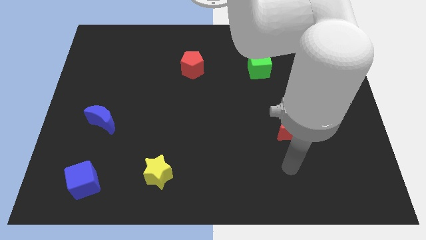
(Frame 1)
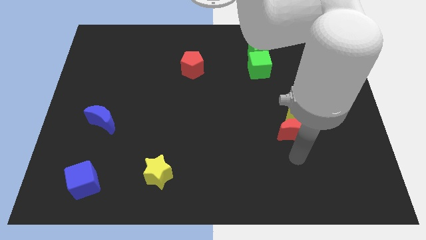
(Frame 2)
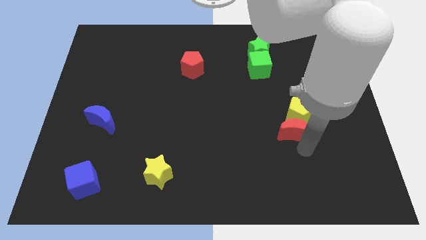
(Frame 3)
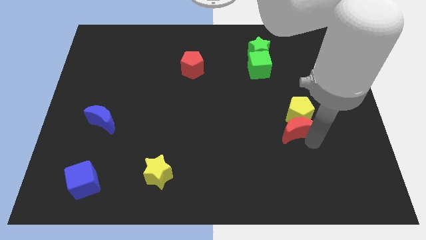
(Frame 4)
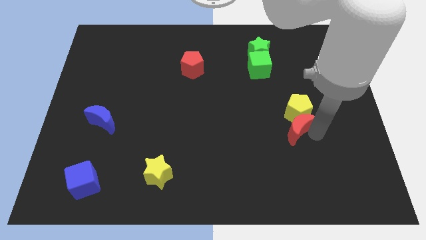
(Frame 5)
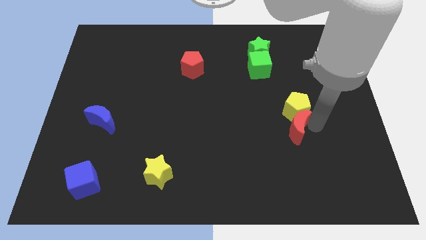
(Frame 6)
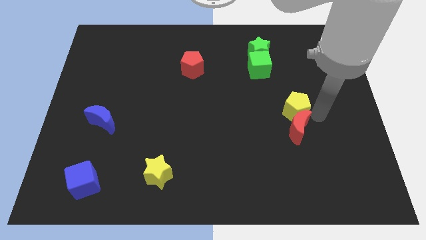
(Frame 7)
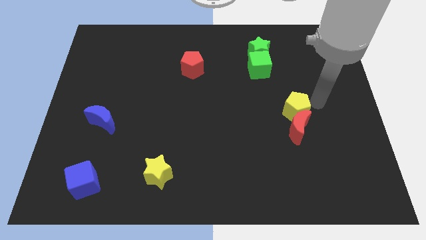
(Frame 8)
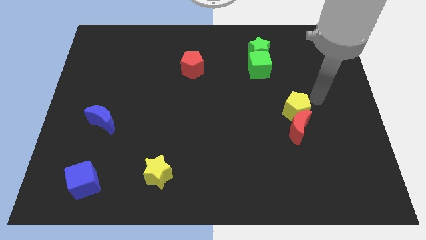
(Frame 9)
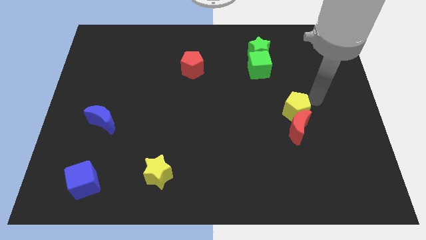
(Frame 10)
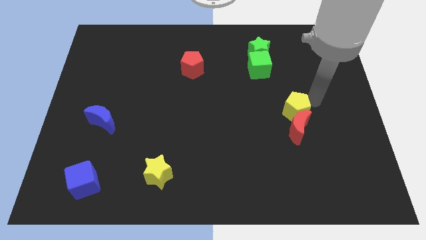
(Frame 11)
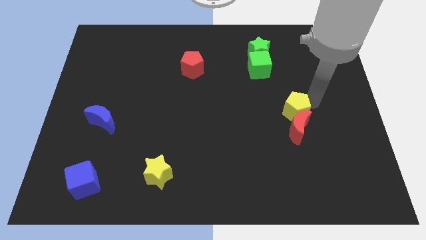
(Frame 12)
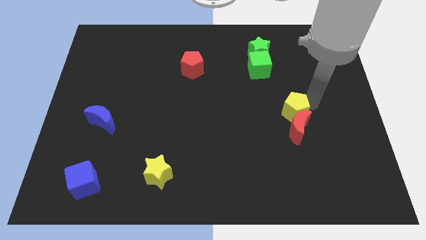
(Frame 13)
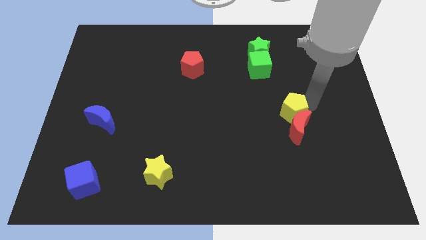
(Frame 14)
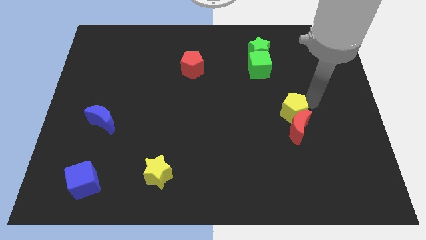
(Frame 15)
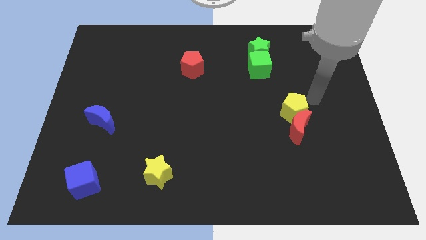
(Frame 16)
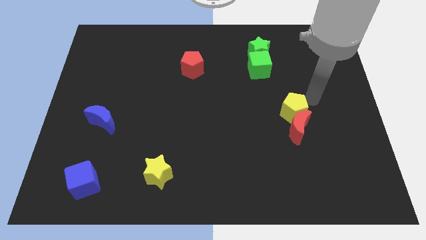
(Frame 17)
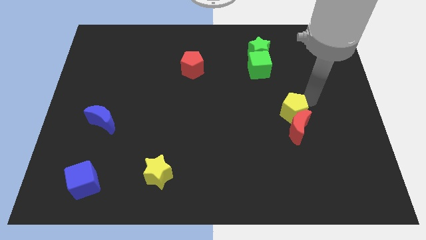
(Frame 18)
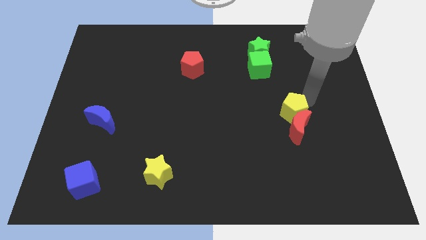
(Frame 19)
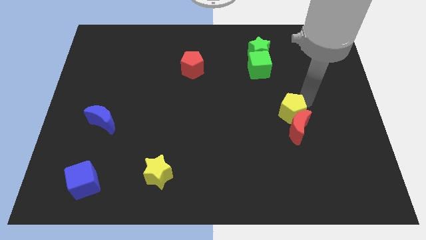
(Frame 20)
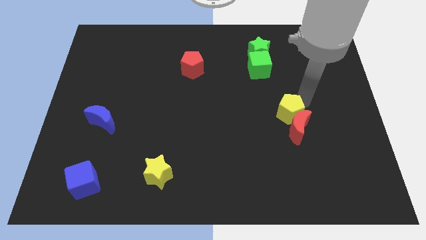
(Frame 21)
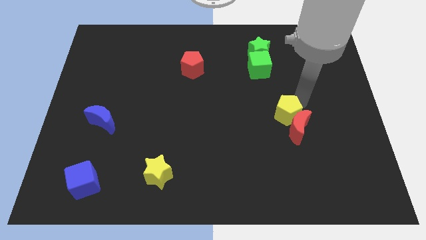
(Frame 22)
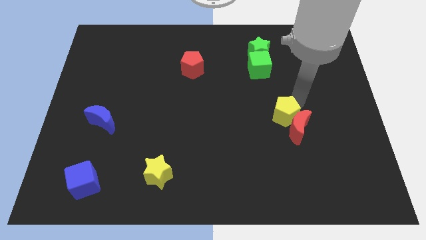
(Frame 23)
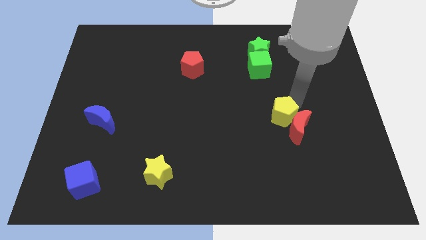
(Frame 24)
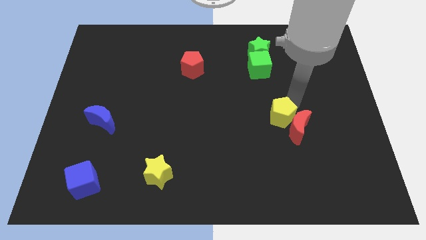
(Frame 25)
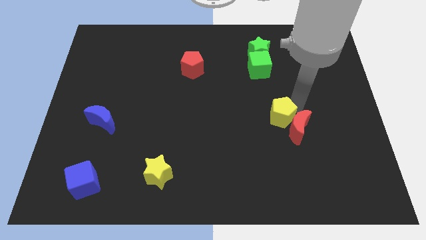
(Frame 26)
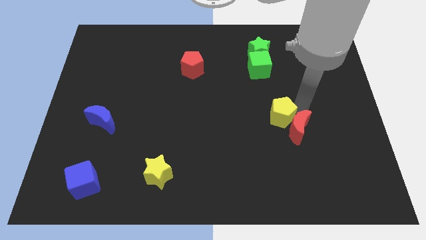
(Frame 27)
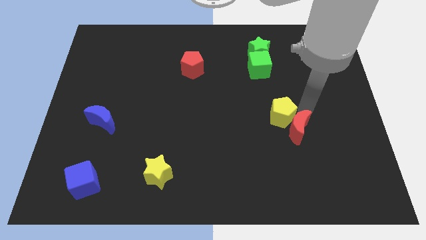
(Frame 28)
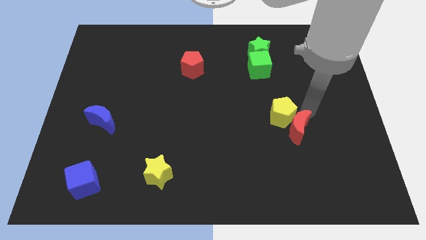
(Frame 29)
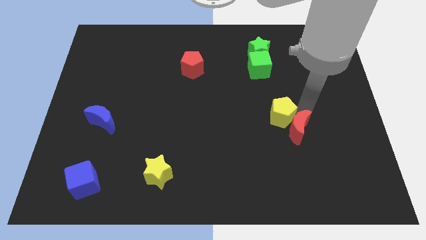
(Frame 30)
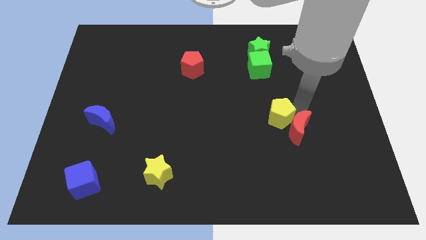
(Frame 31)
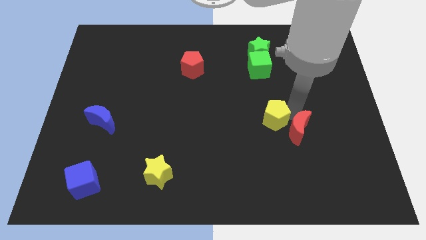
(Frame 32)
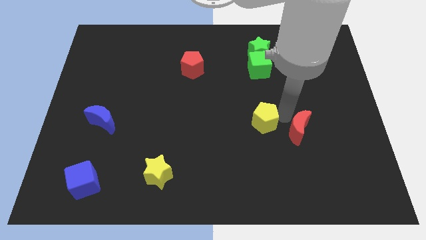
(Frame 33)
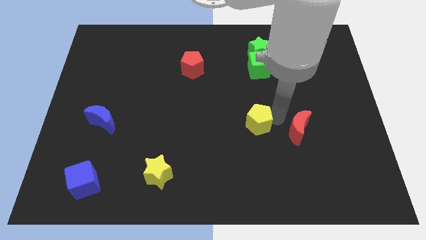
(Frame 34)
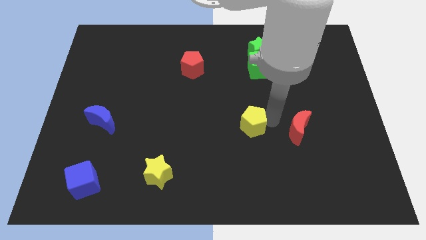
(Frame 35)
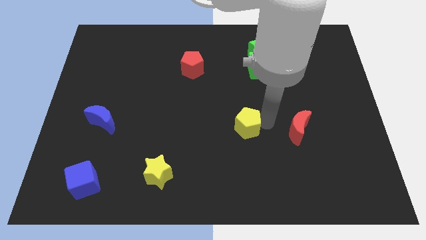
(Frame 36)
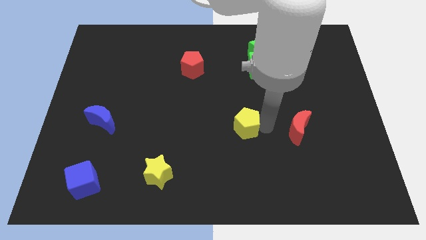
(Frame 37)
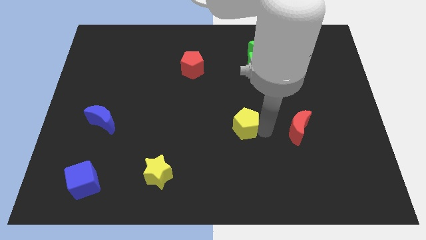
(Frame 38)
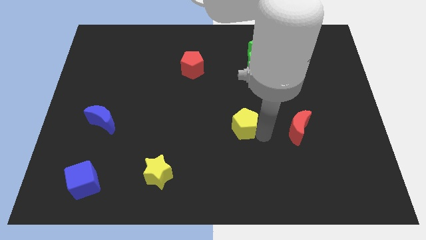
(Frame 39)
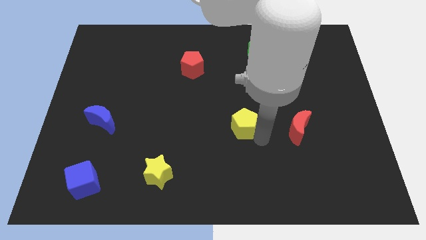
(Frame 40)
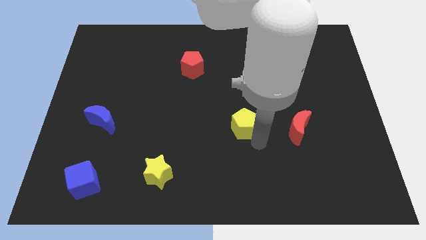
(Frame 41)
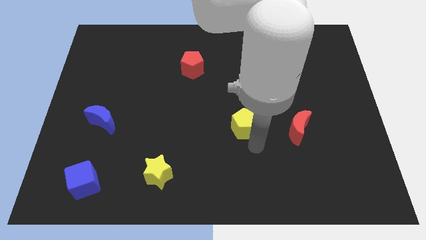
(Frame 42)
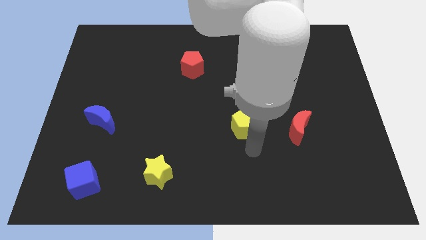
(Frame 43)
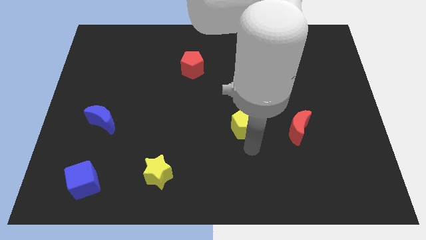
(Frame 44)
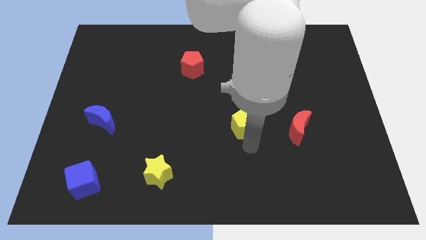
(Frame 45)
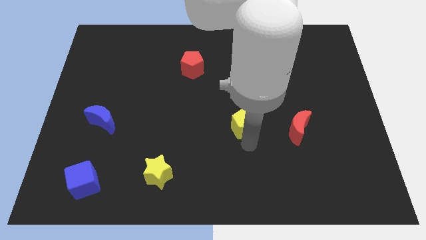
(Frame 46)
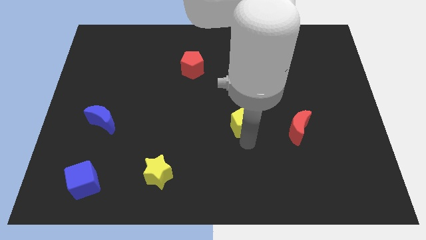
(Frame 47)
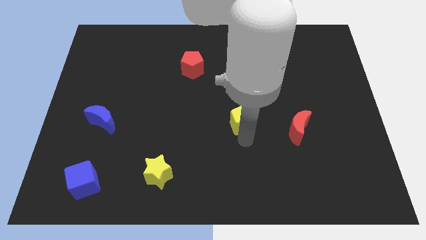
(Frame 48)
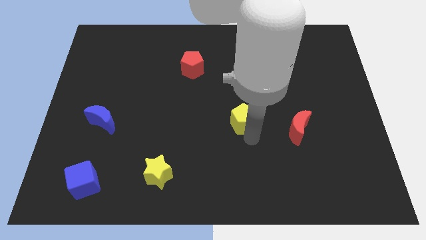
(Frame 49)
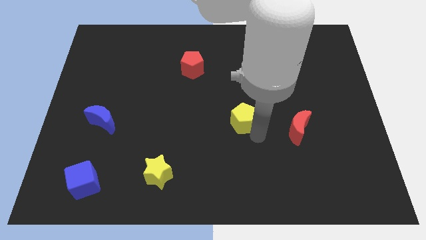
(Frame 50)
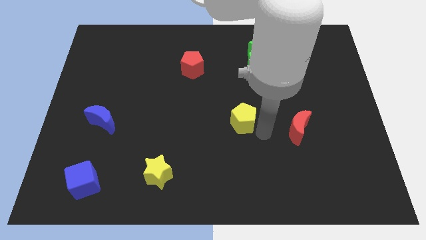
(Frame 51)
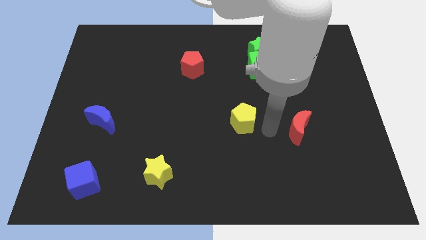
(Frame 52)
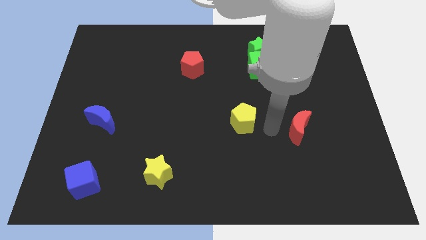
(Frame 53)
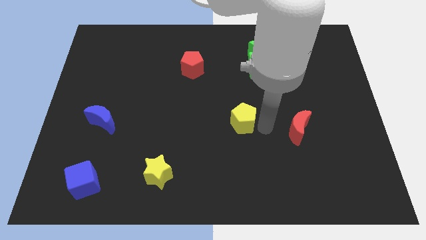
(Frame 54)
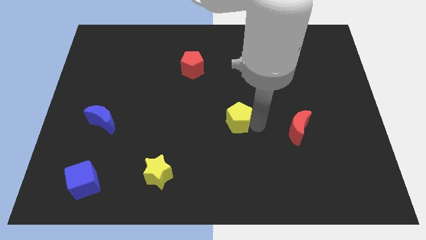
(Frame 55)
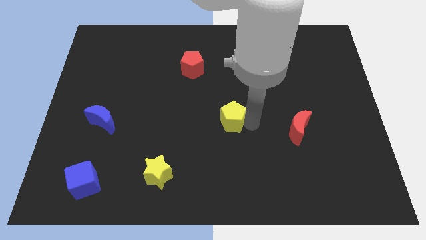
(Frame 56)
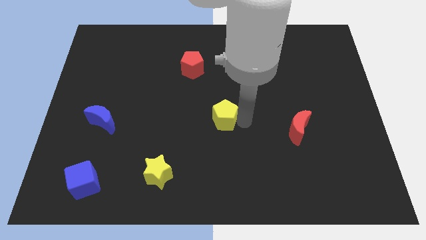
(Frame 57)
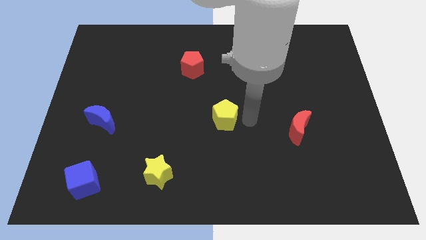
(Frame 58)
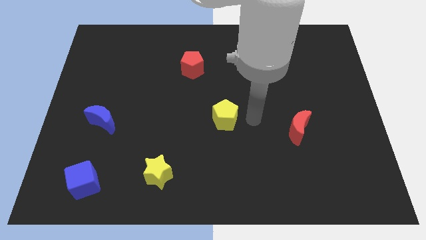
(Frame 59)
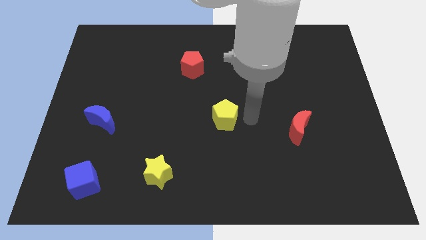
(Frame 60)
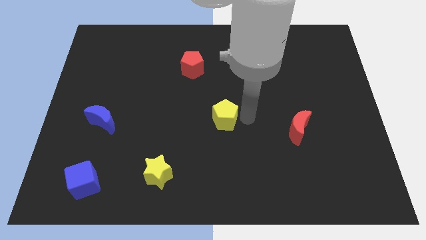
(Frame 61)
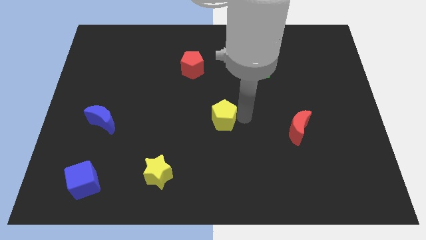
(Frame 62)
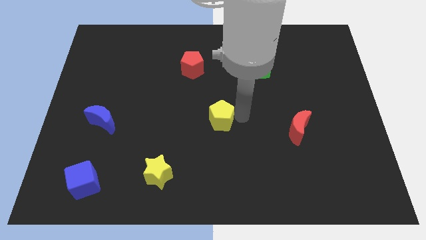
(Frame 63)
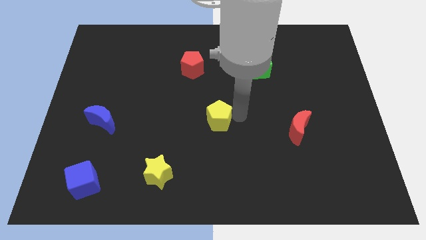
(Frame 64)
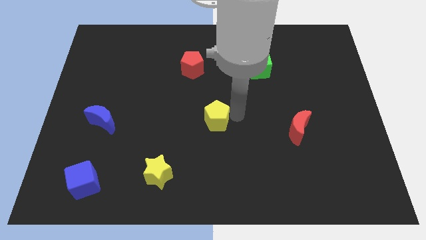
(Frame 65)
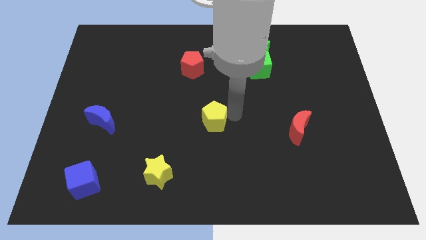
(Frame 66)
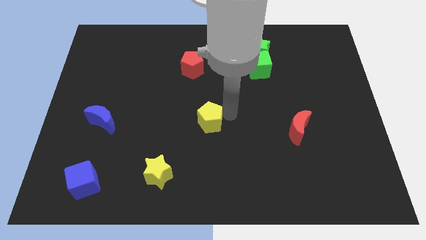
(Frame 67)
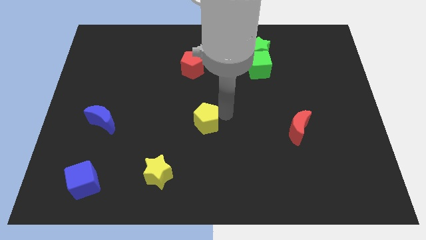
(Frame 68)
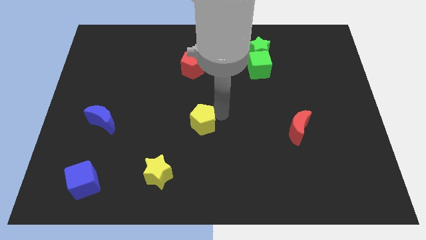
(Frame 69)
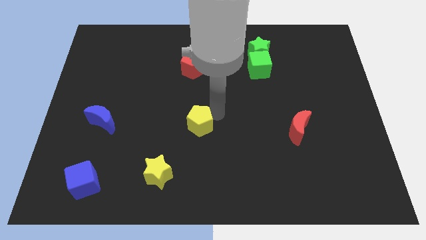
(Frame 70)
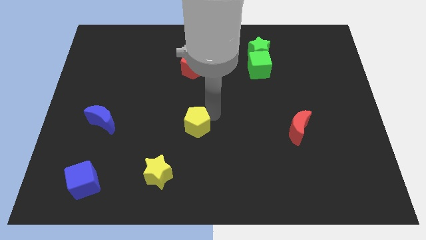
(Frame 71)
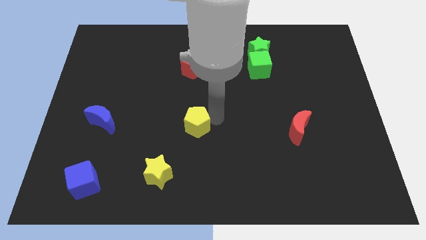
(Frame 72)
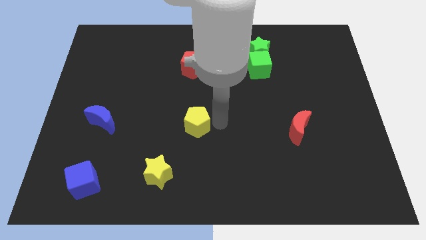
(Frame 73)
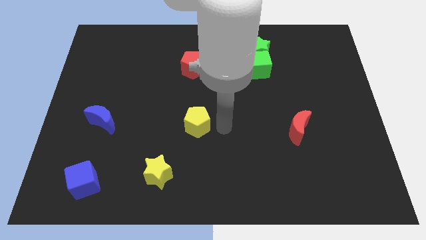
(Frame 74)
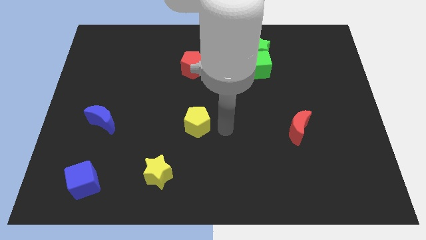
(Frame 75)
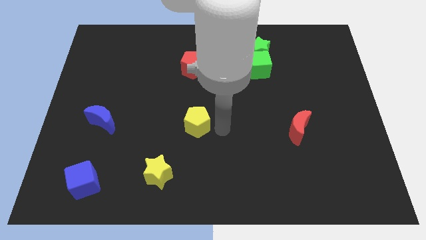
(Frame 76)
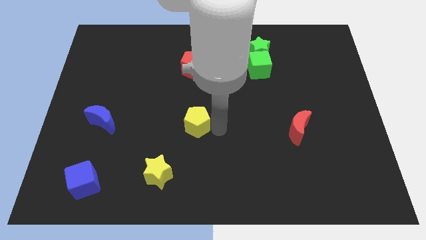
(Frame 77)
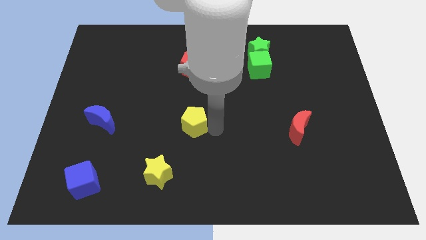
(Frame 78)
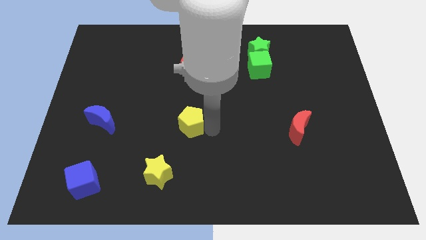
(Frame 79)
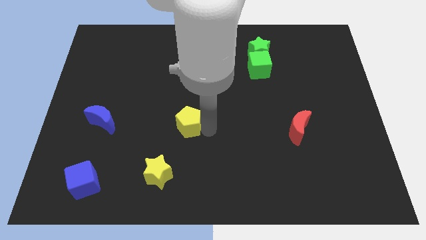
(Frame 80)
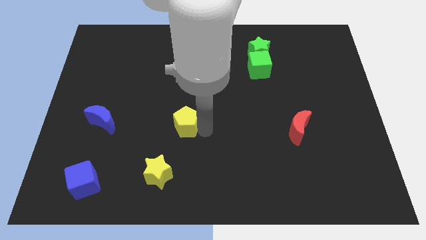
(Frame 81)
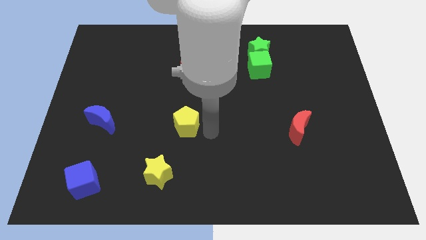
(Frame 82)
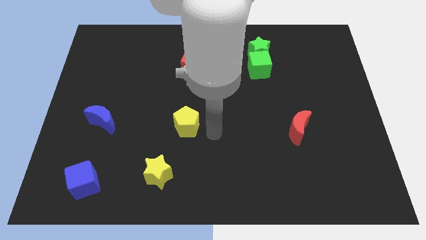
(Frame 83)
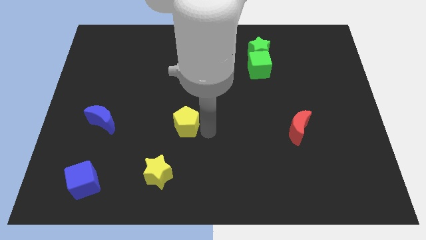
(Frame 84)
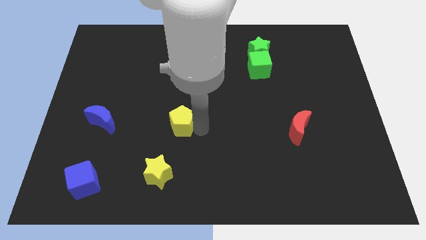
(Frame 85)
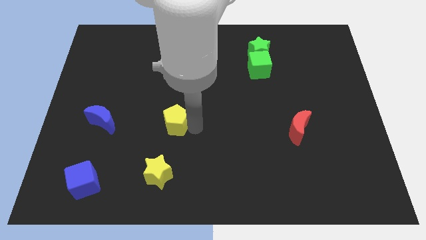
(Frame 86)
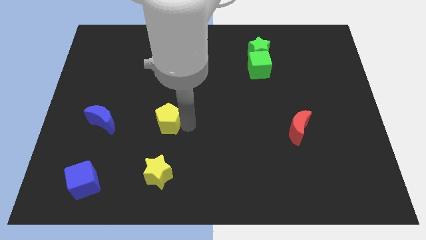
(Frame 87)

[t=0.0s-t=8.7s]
slide the yellow pentagon to the right of the blue moon
